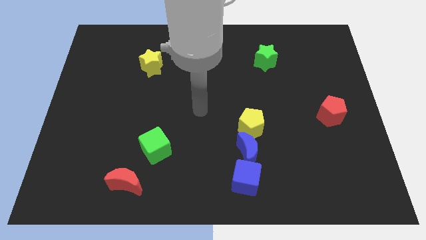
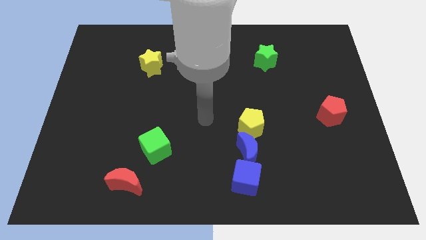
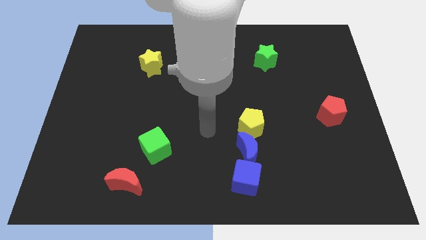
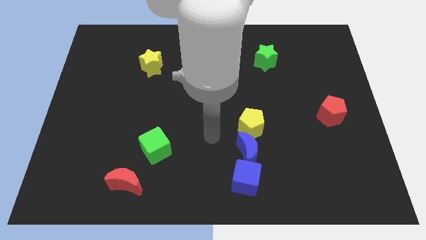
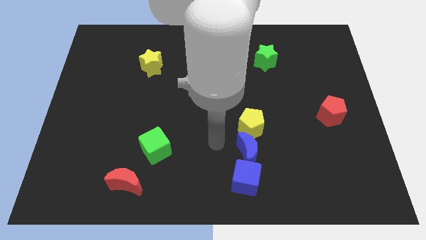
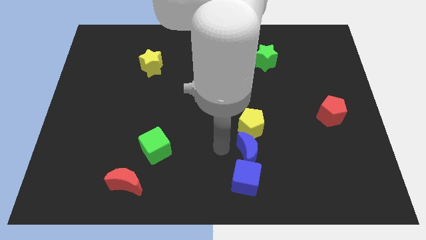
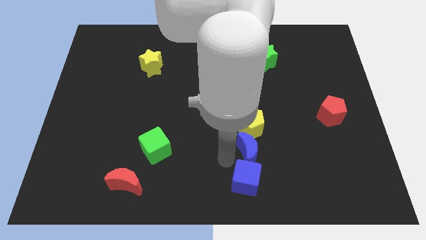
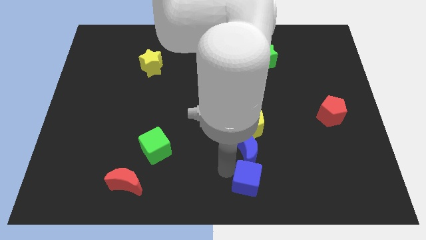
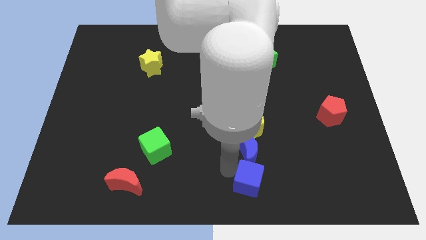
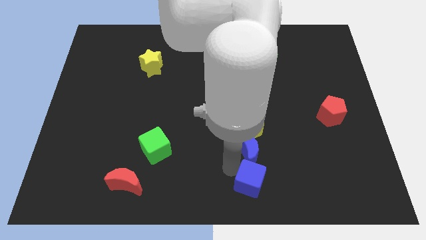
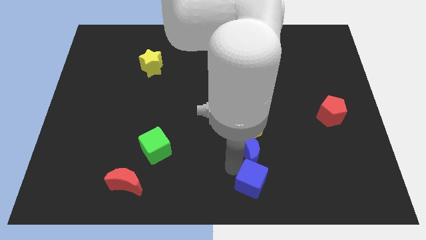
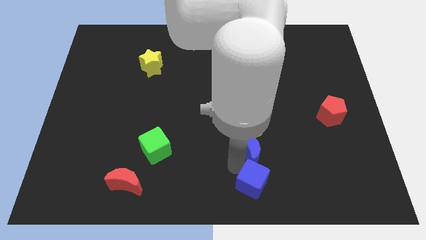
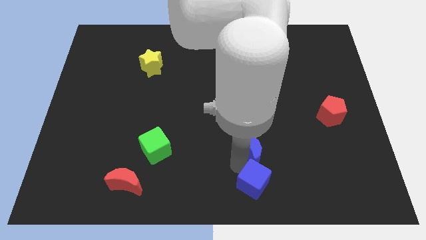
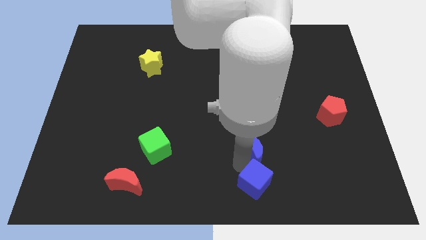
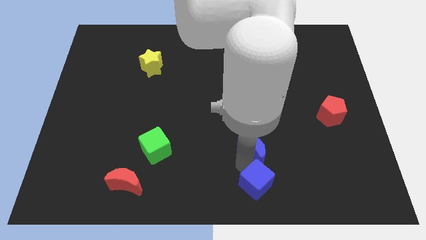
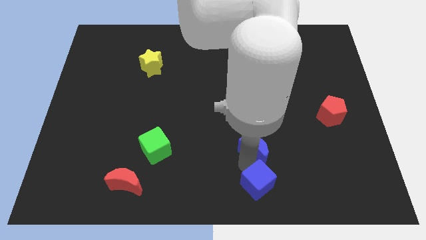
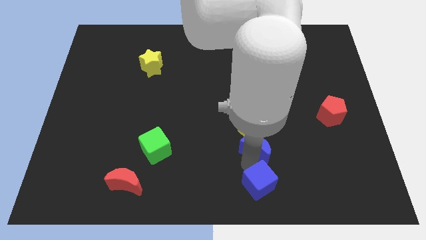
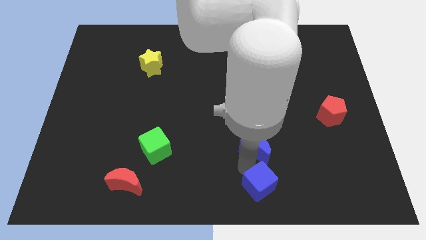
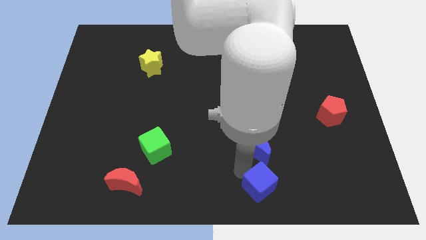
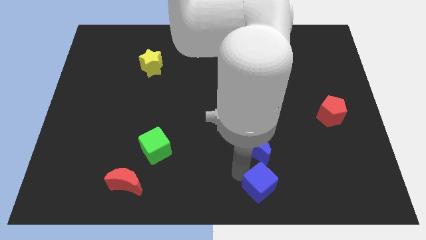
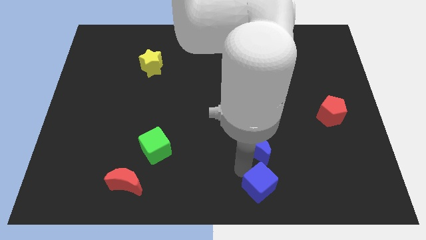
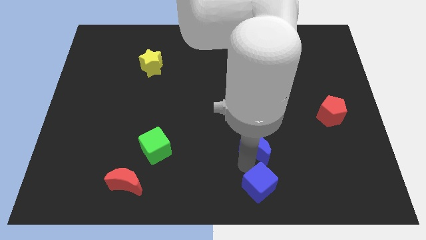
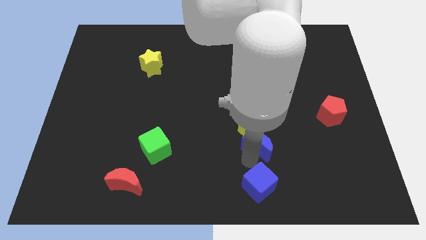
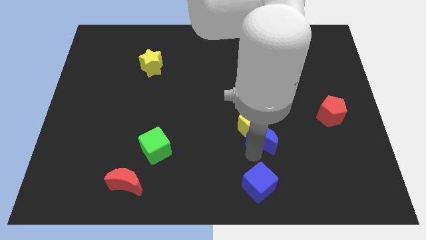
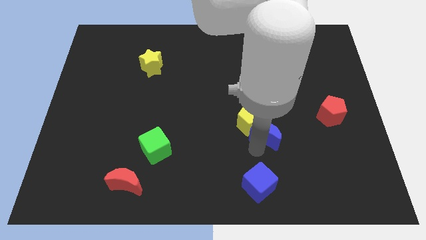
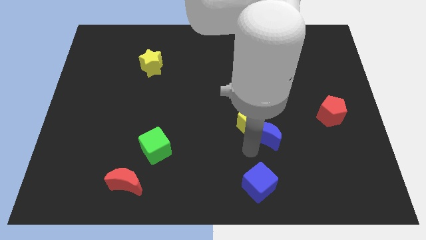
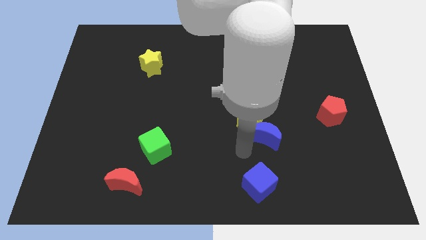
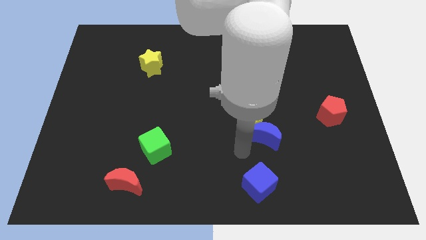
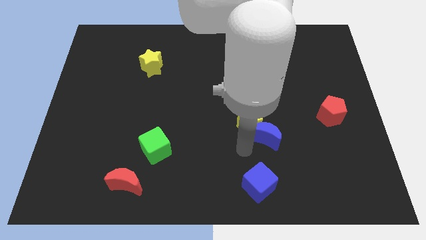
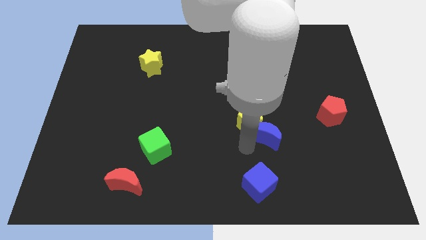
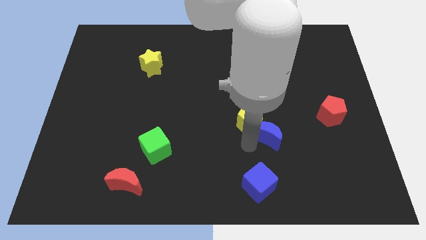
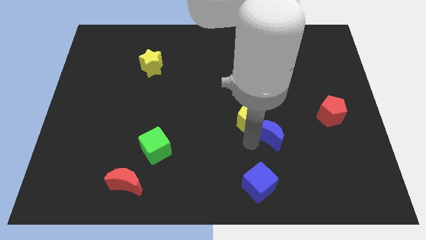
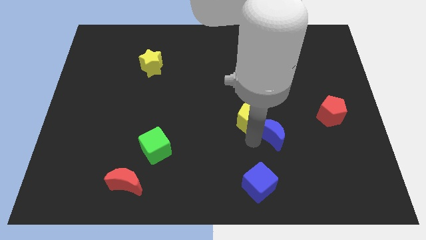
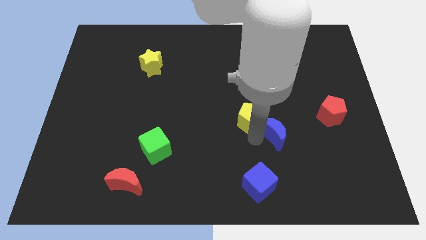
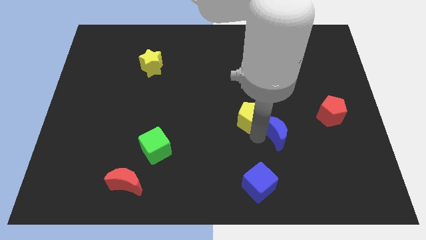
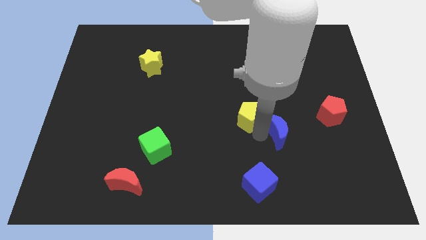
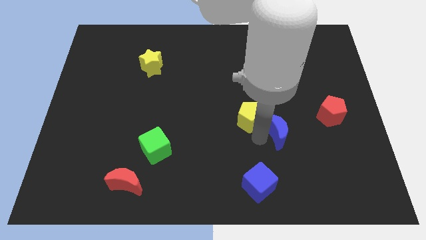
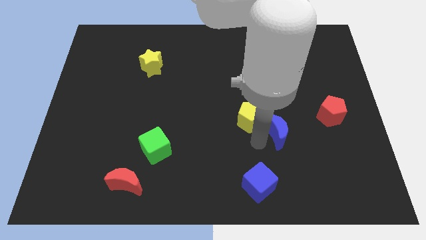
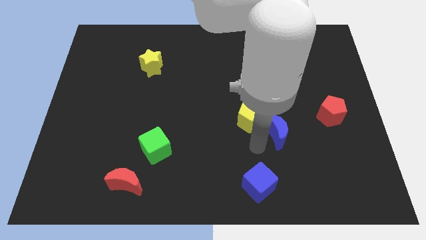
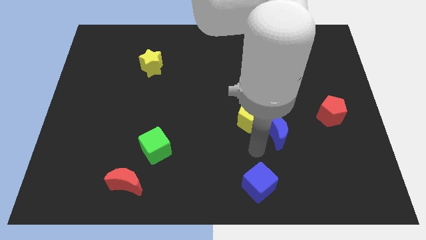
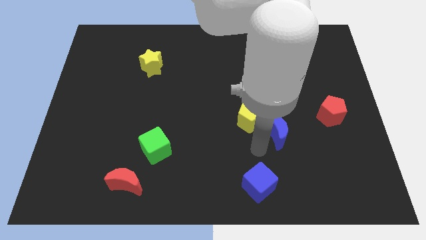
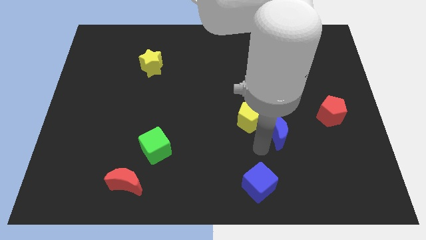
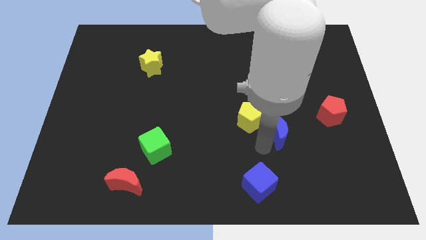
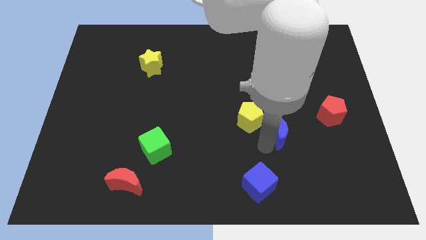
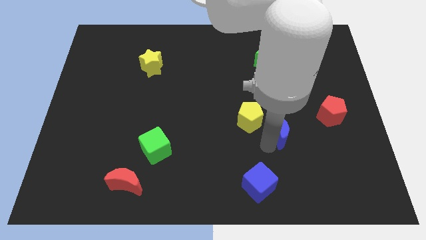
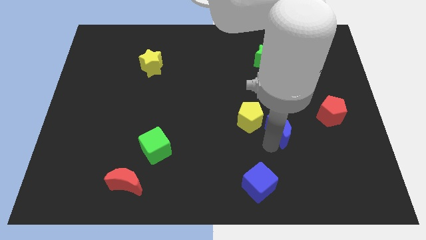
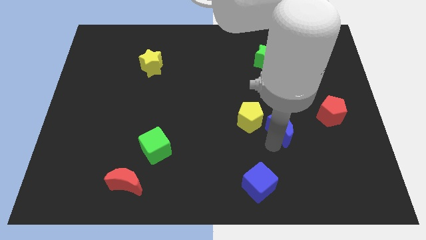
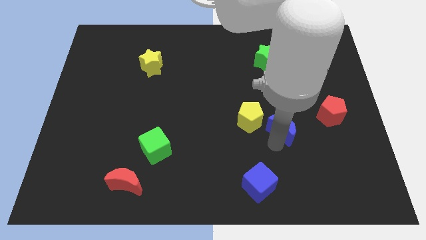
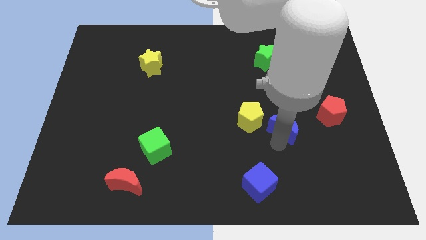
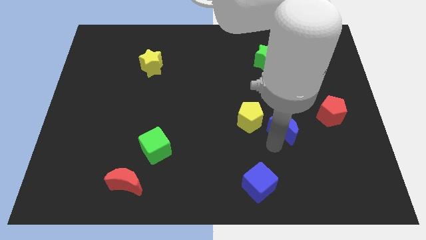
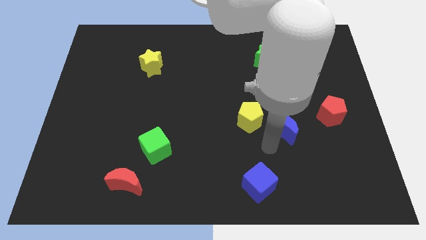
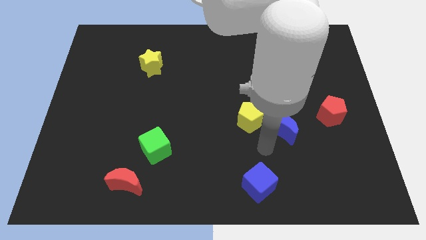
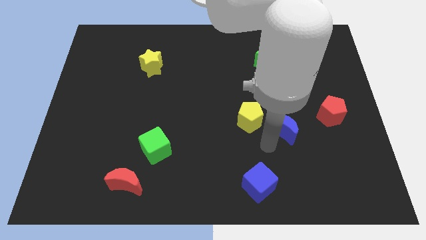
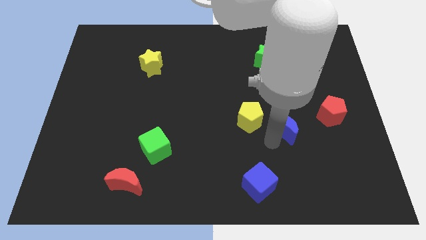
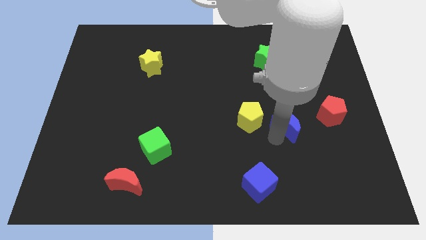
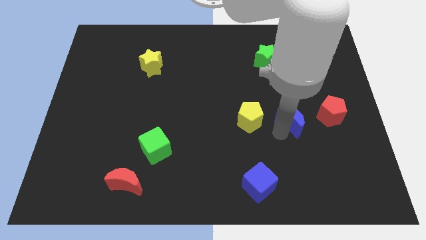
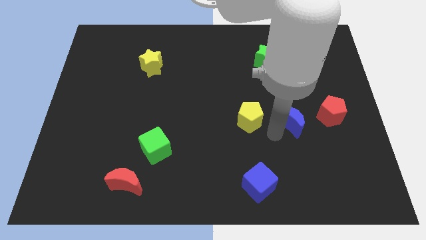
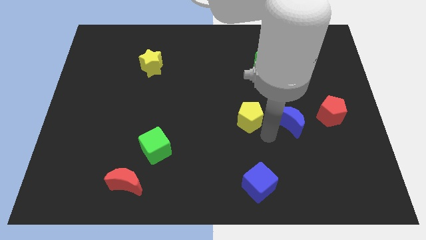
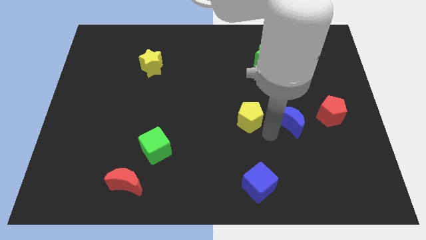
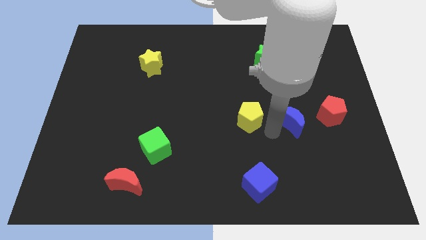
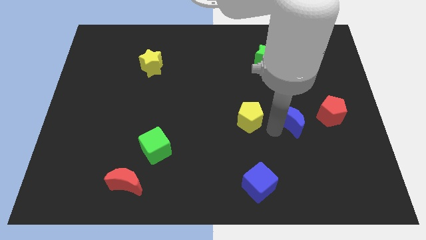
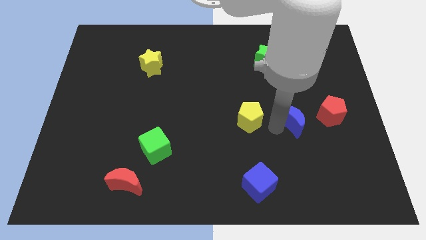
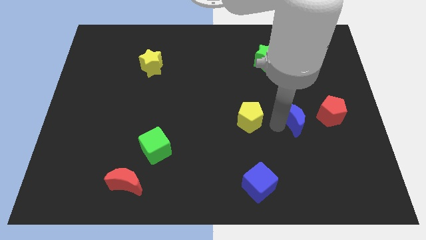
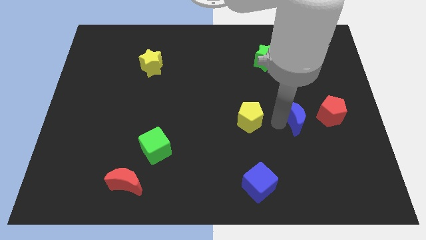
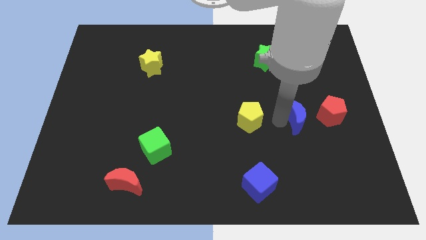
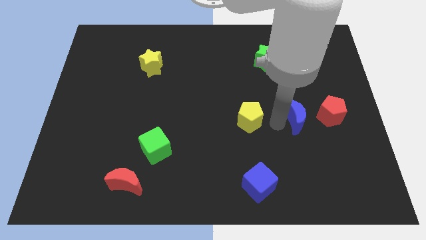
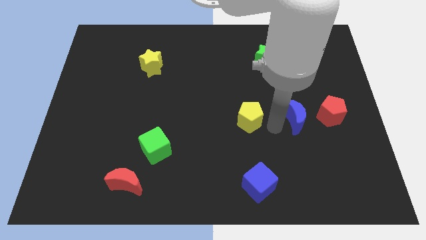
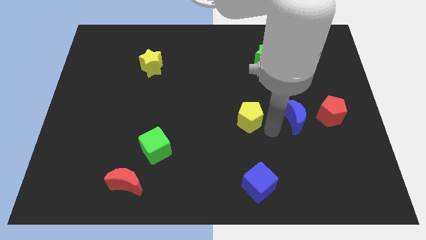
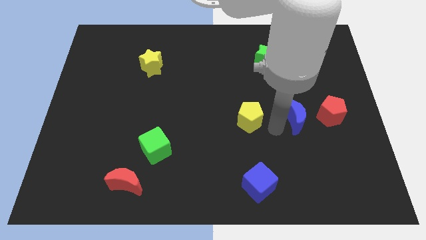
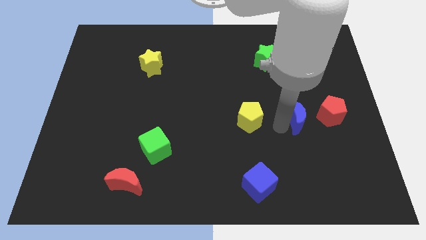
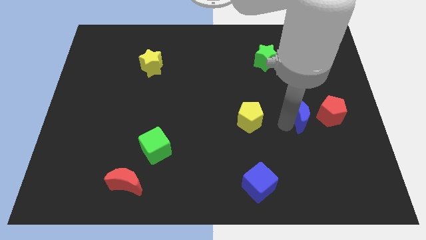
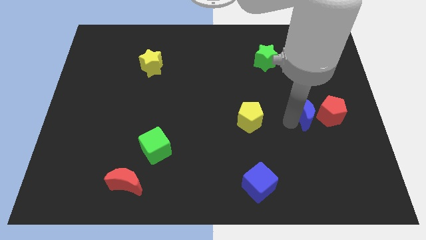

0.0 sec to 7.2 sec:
move the blue moon to the red pentagon
